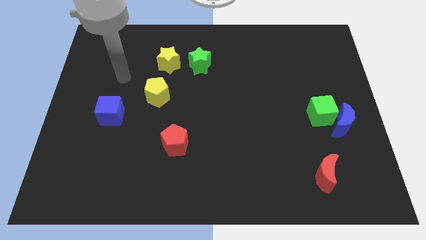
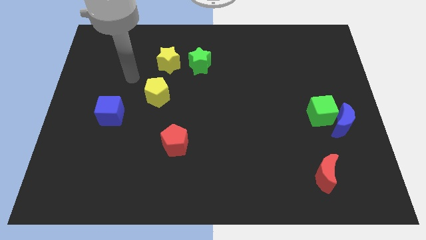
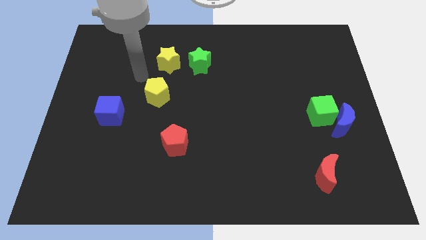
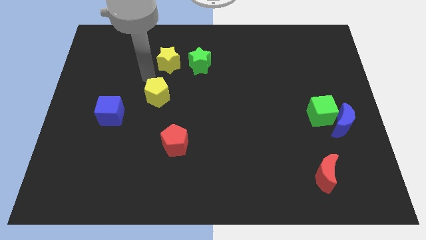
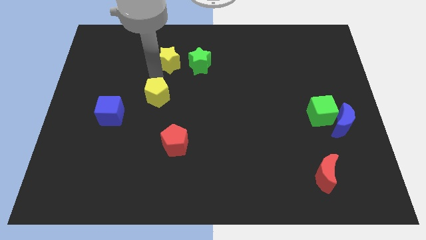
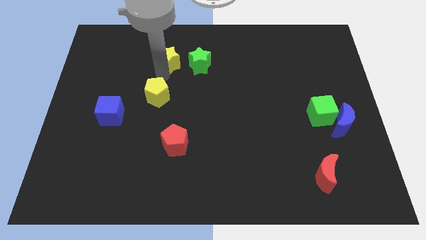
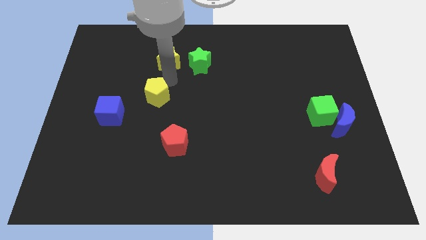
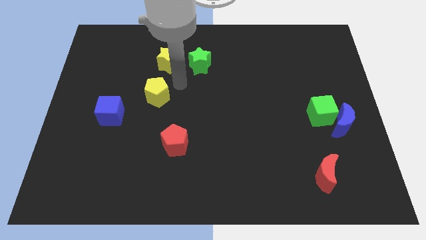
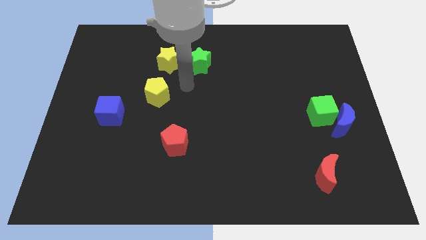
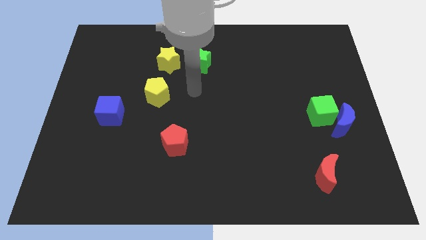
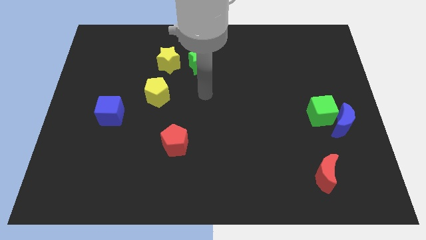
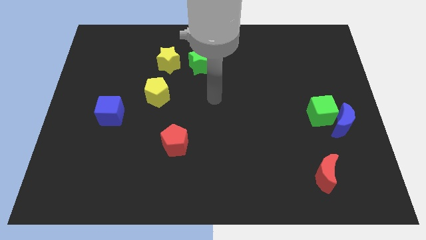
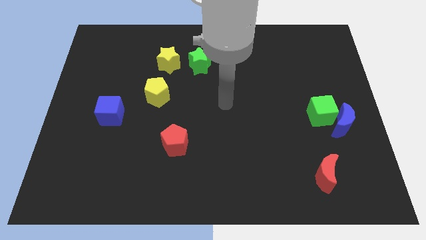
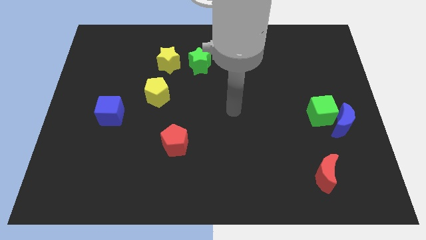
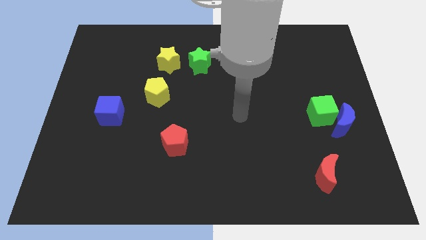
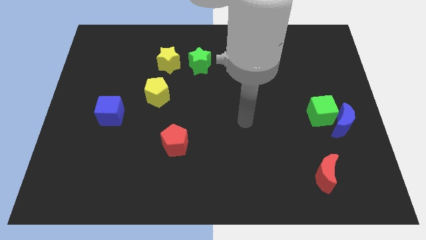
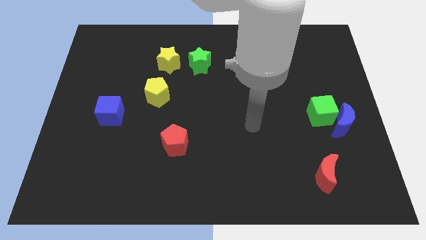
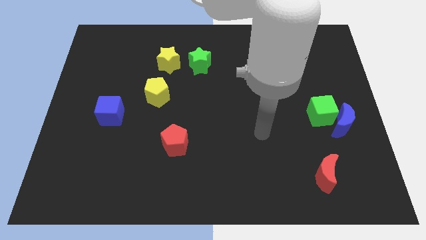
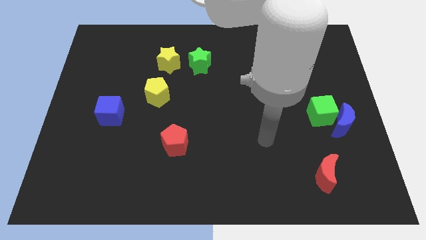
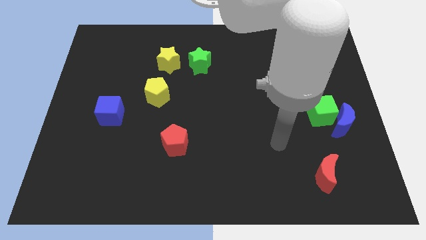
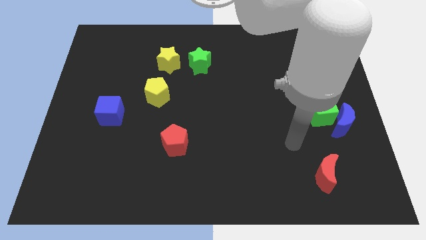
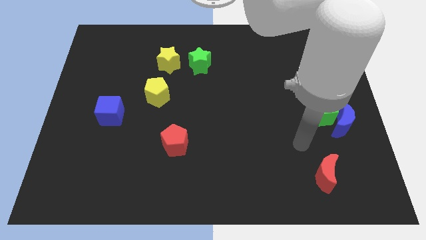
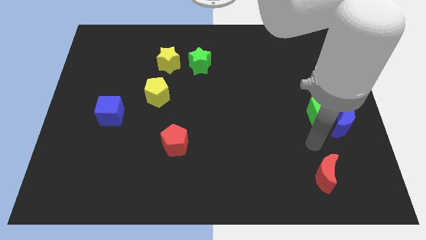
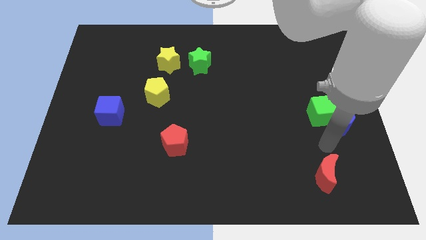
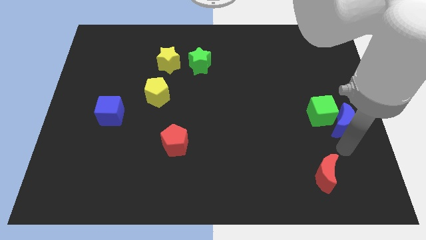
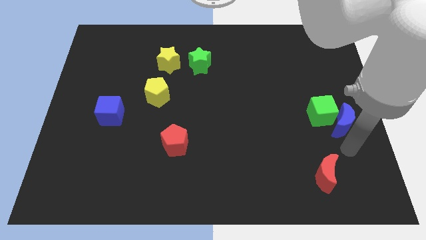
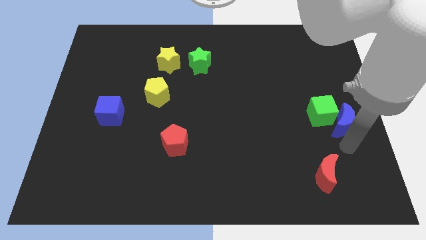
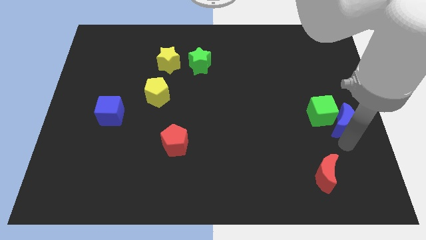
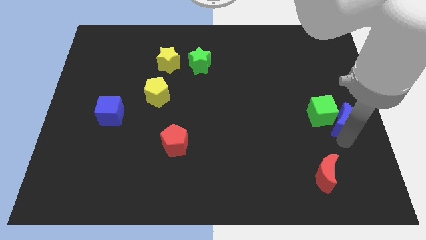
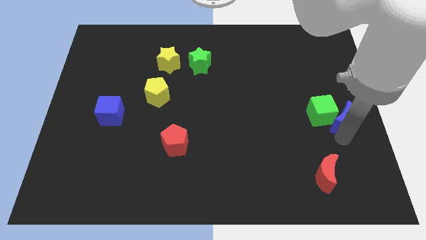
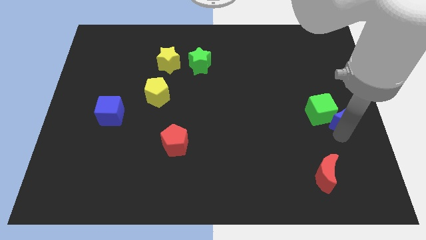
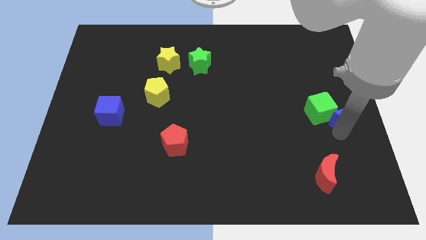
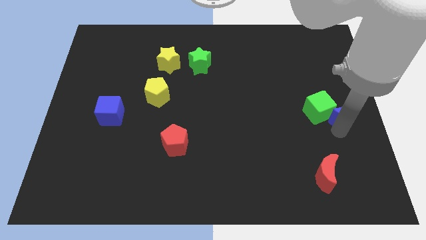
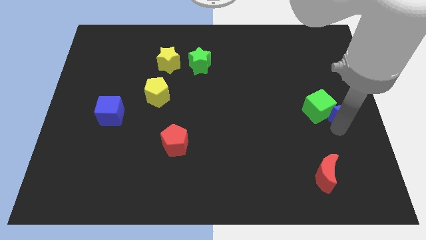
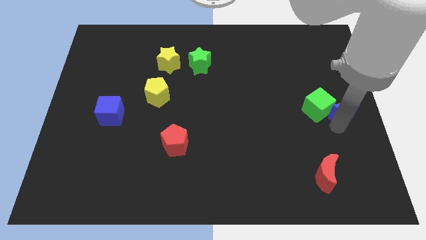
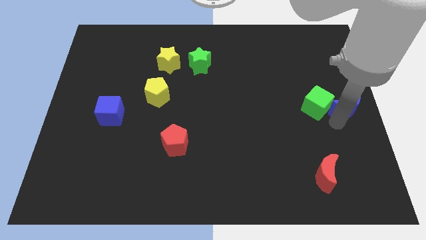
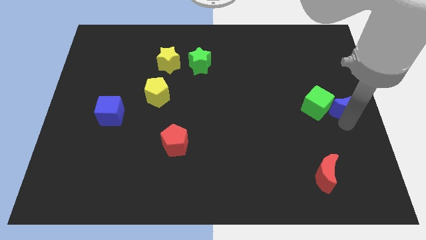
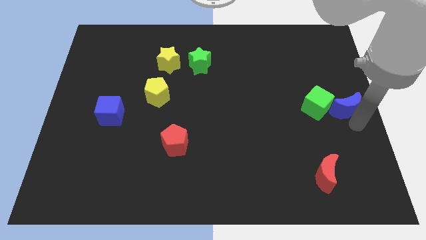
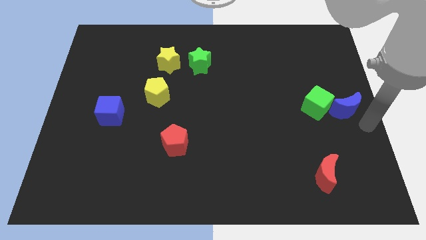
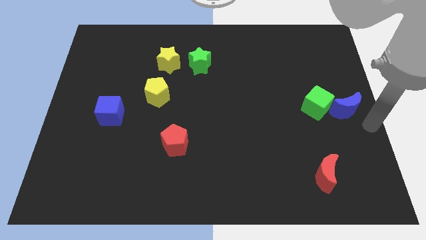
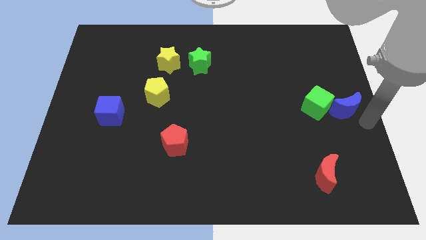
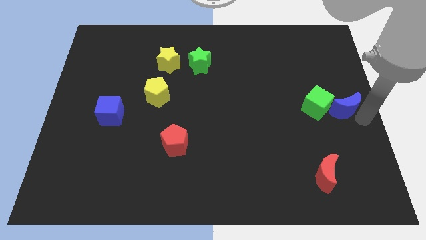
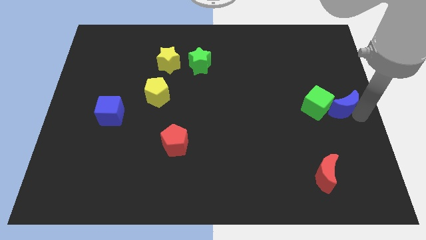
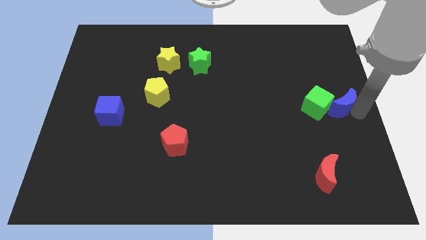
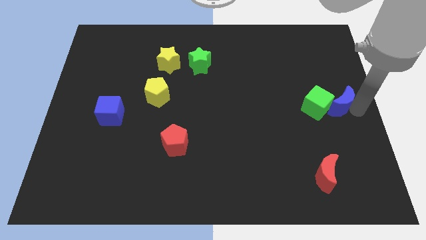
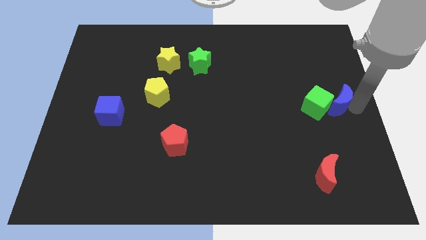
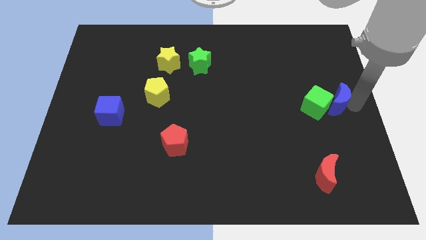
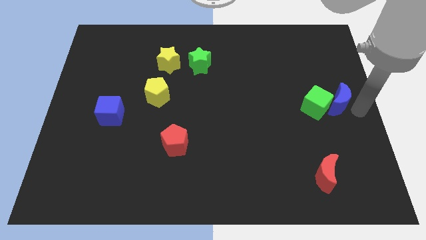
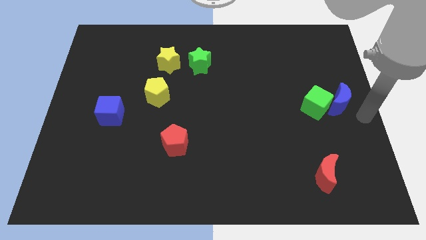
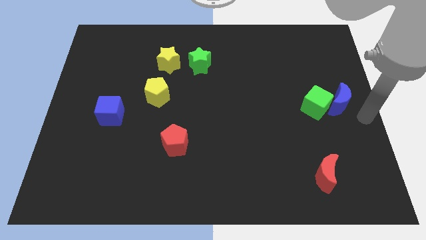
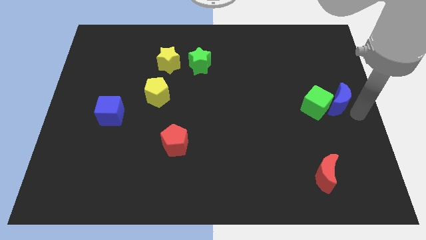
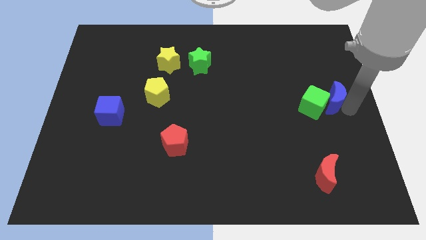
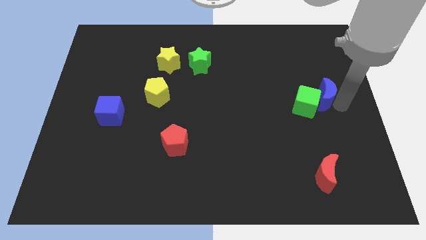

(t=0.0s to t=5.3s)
move the blue moon slightly up and then left

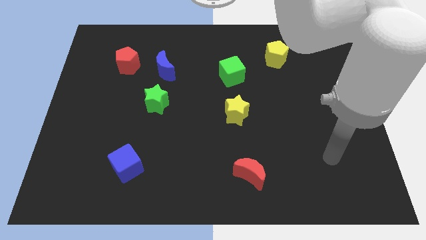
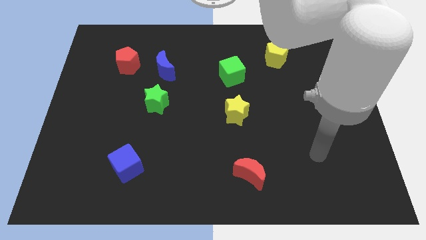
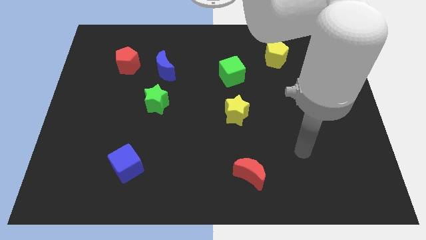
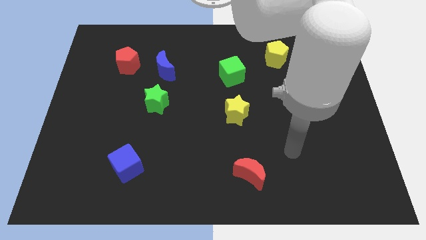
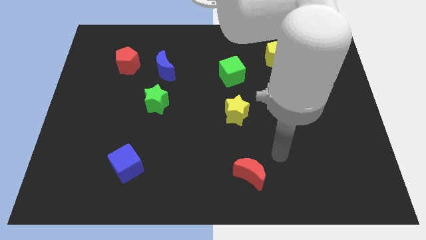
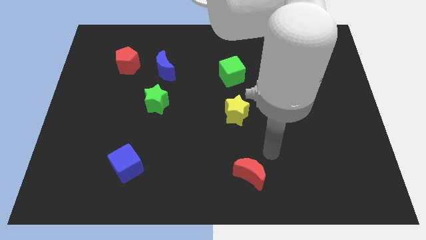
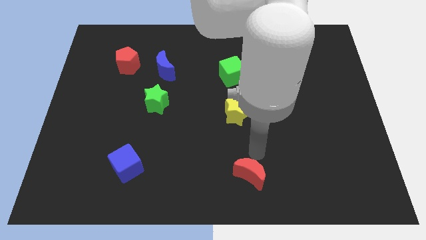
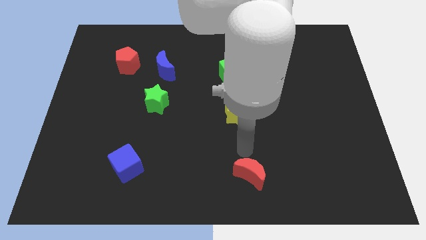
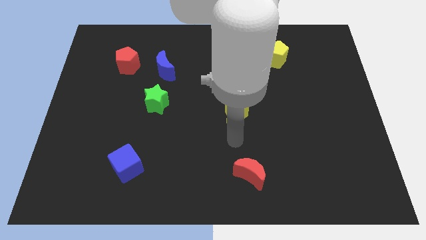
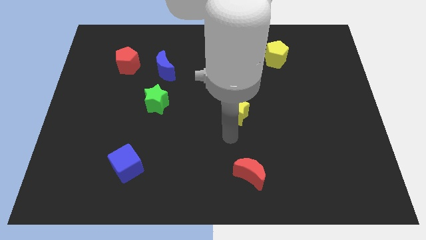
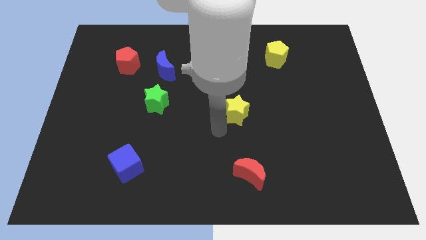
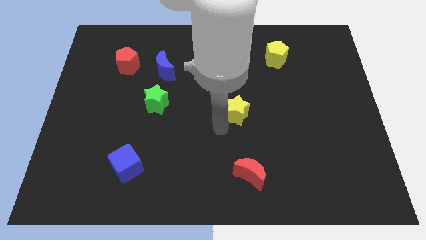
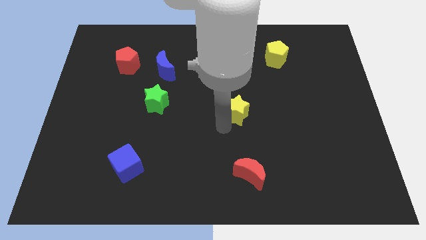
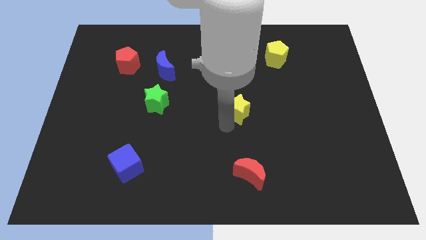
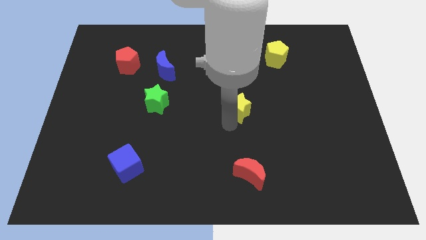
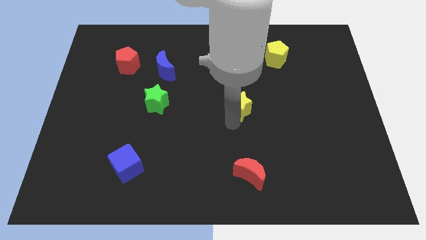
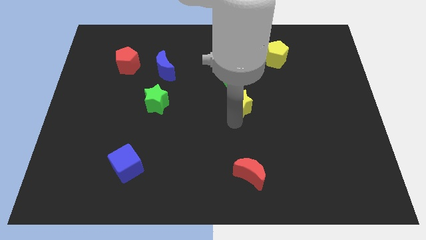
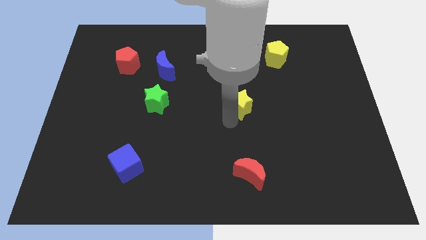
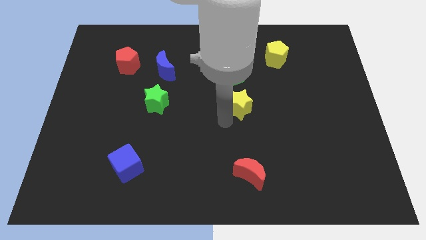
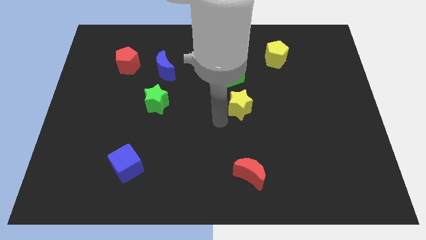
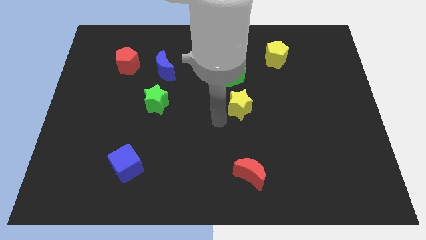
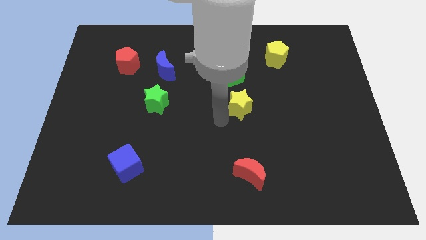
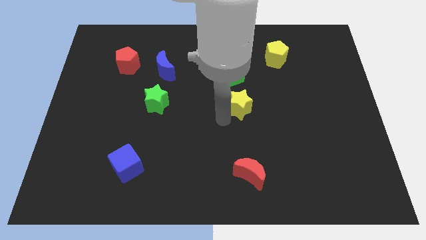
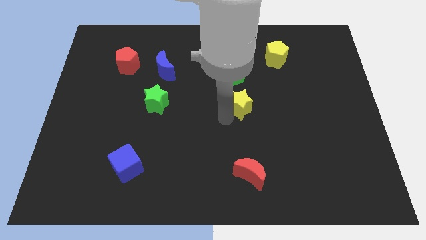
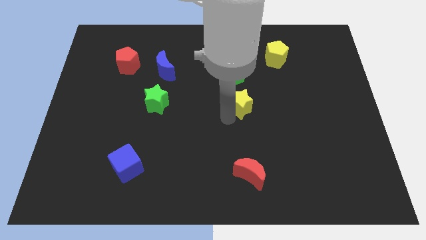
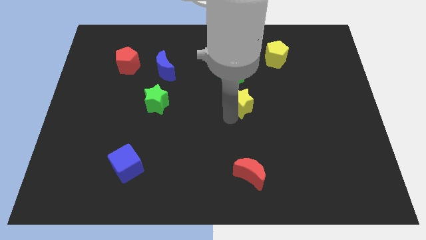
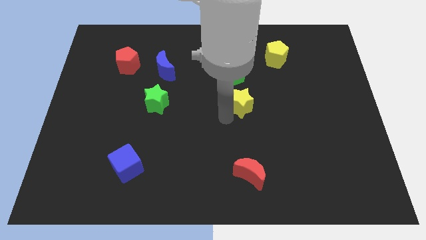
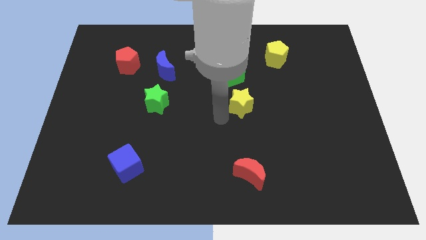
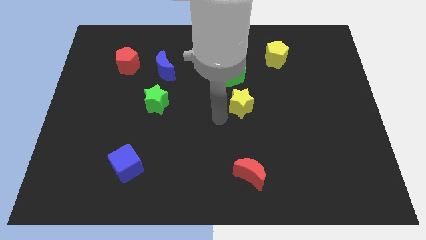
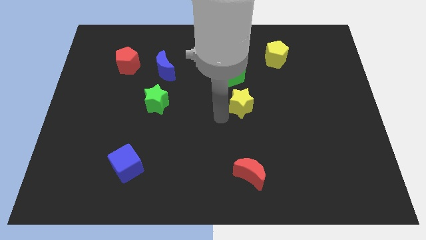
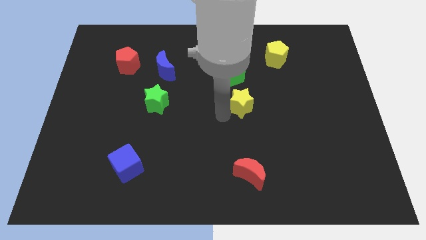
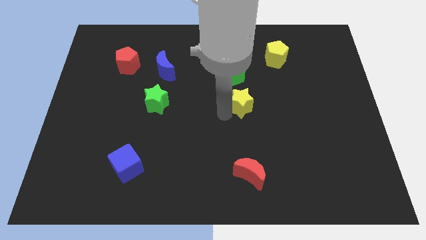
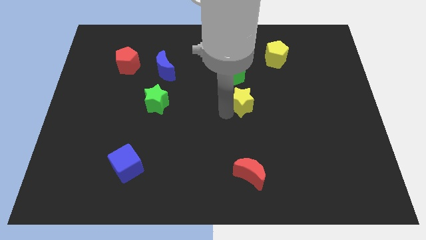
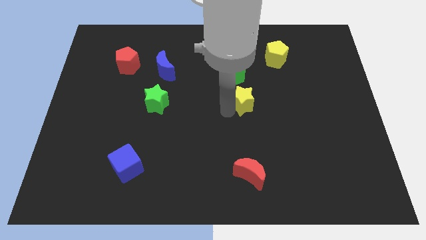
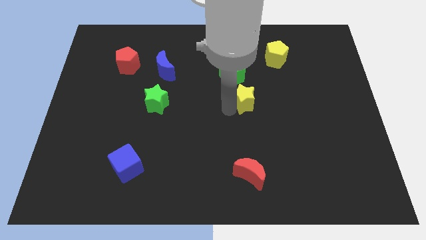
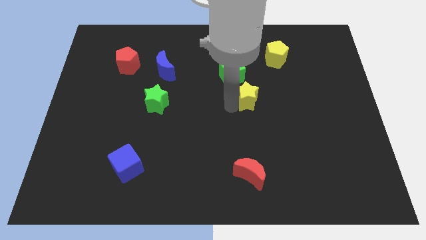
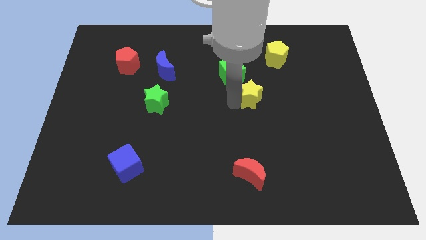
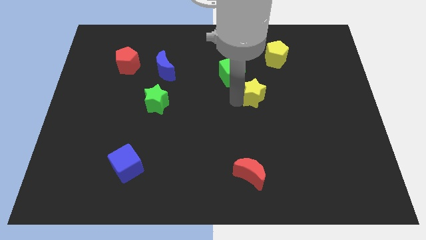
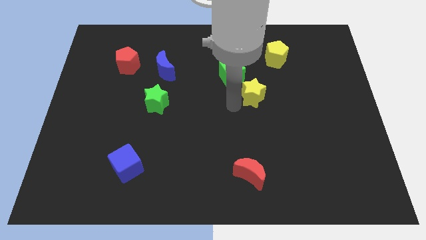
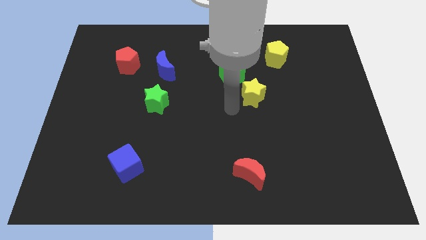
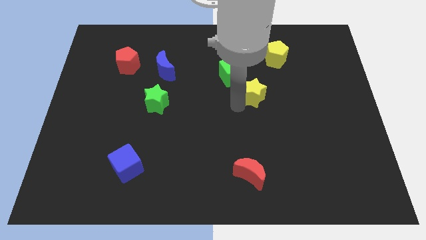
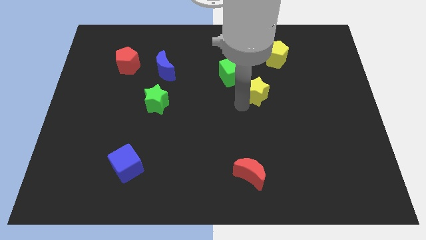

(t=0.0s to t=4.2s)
slightly move the yellow star up and to the right diagonally
